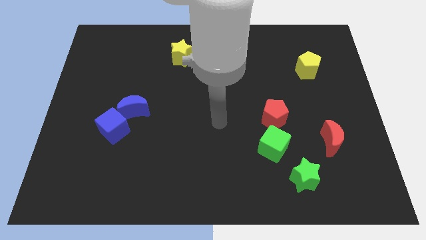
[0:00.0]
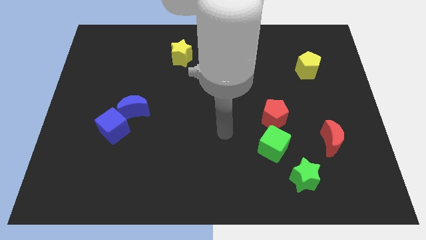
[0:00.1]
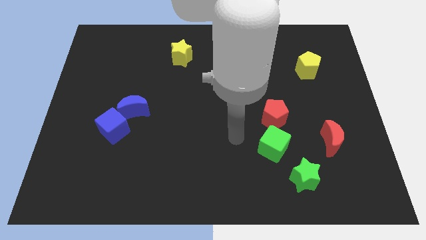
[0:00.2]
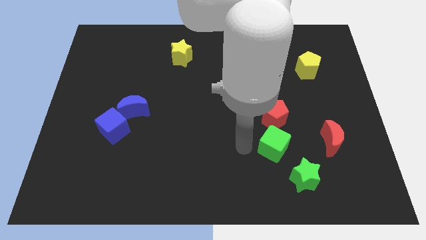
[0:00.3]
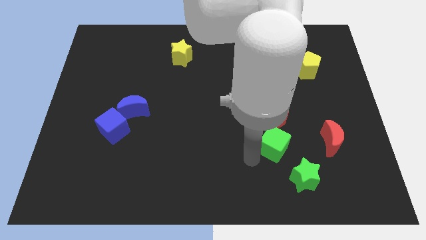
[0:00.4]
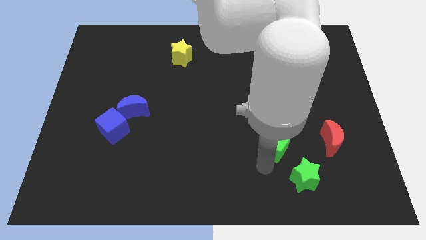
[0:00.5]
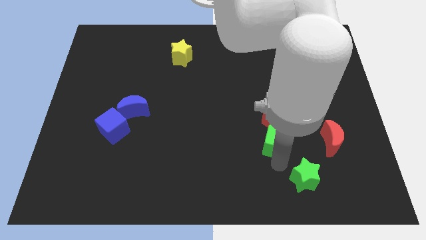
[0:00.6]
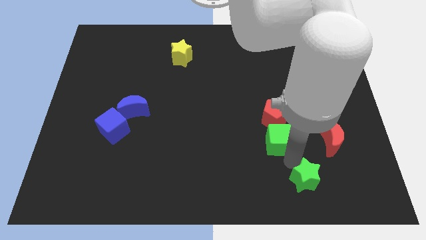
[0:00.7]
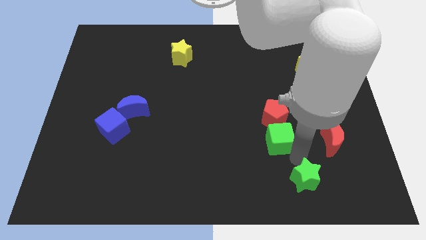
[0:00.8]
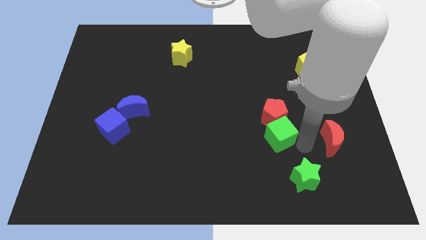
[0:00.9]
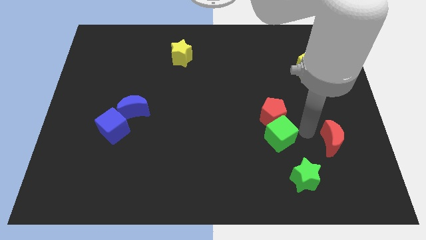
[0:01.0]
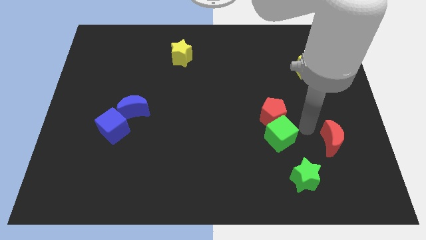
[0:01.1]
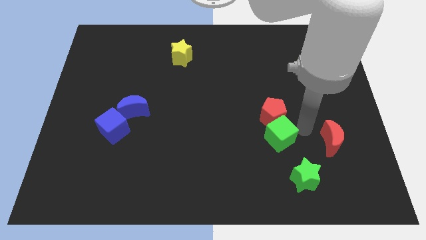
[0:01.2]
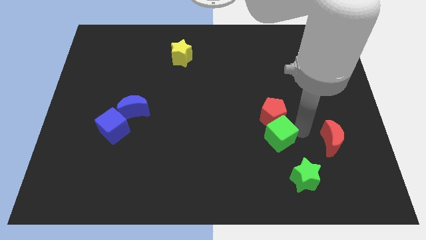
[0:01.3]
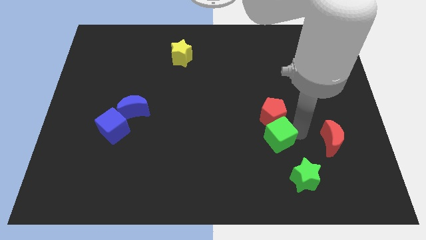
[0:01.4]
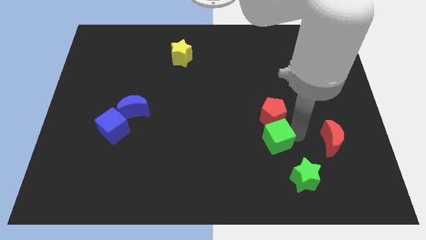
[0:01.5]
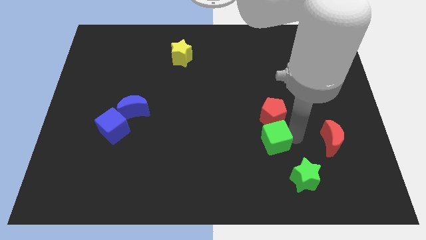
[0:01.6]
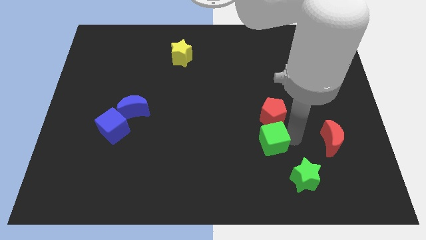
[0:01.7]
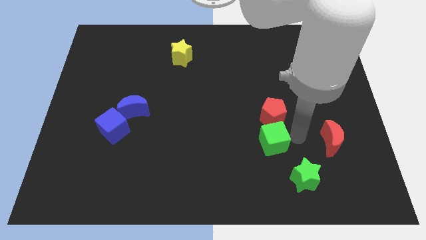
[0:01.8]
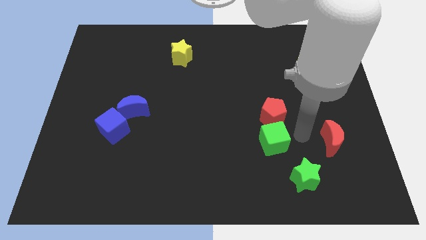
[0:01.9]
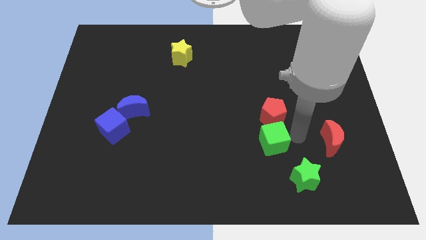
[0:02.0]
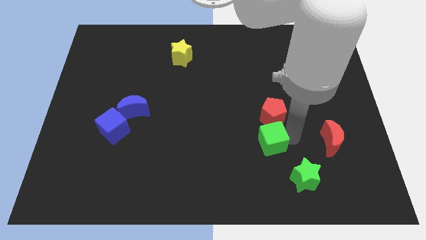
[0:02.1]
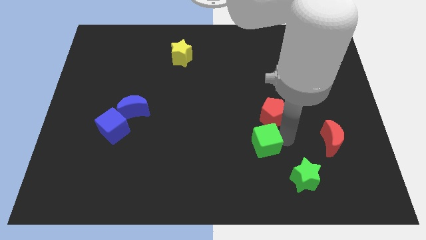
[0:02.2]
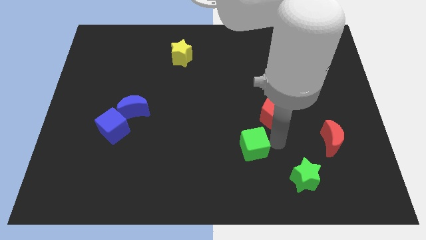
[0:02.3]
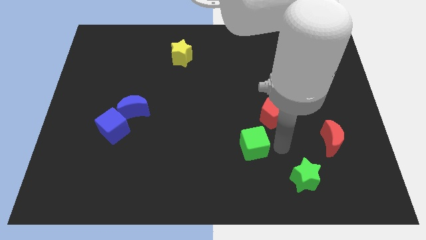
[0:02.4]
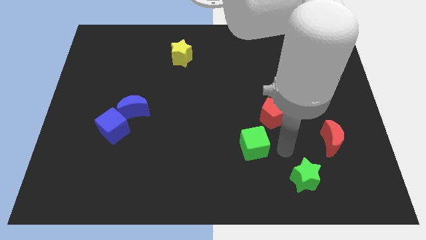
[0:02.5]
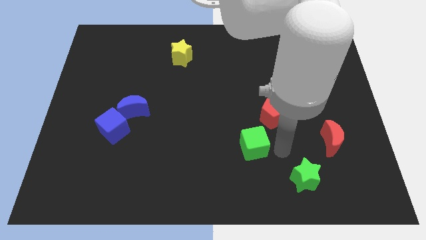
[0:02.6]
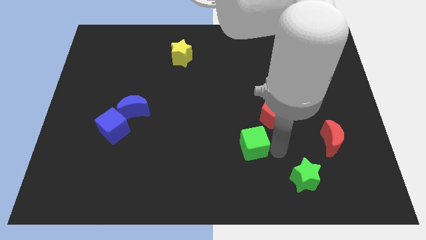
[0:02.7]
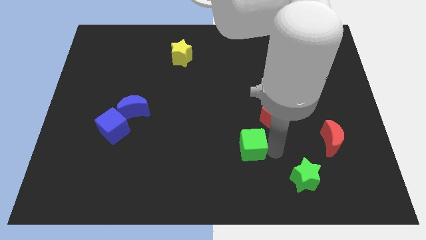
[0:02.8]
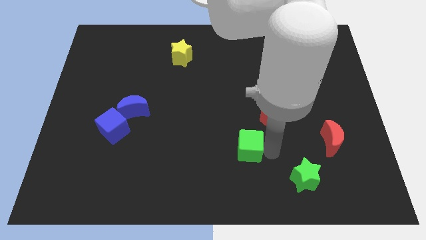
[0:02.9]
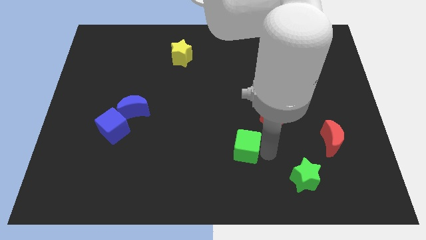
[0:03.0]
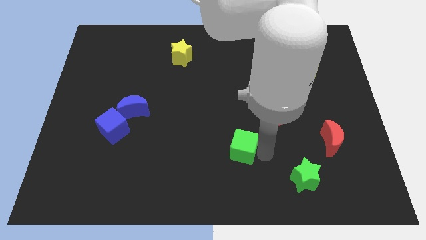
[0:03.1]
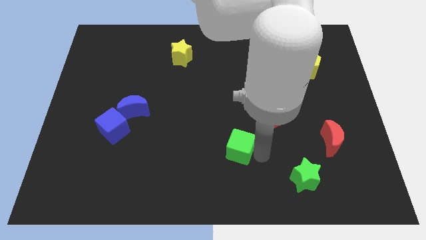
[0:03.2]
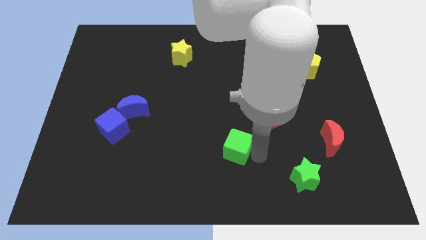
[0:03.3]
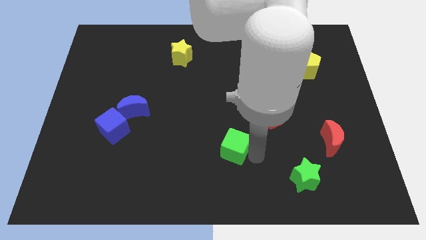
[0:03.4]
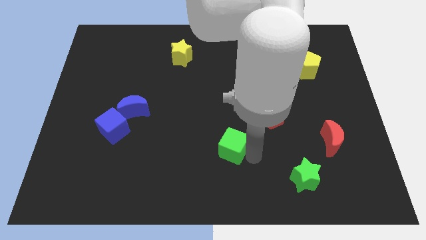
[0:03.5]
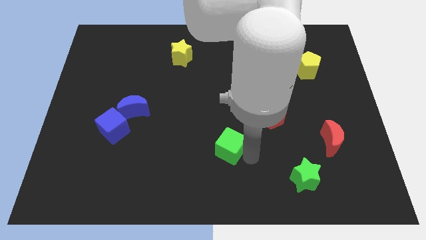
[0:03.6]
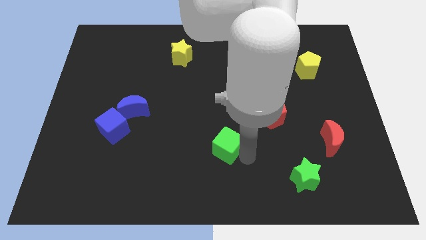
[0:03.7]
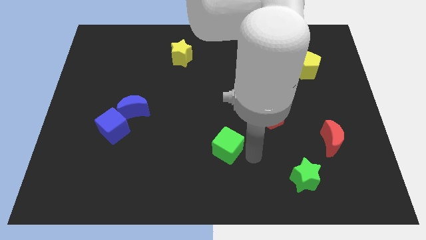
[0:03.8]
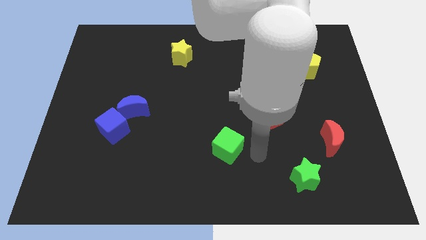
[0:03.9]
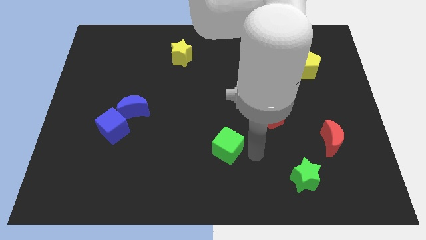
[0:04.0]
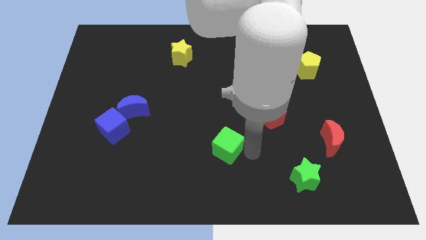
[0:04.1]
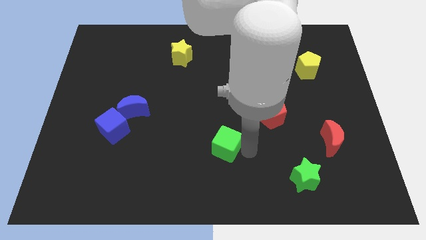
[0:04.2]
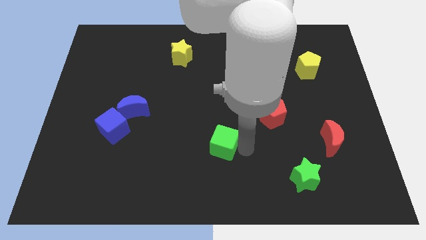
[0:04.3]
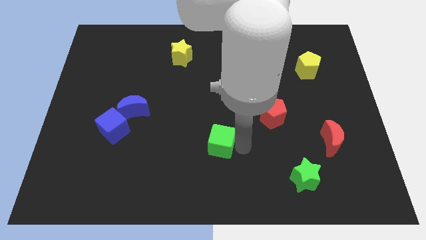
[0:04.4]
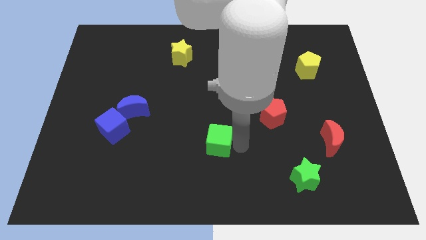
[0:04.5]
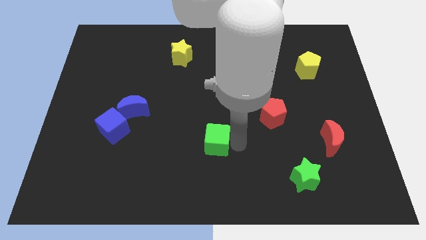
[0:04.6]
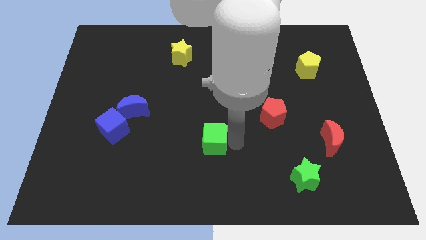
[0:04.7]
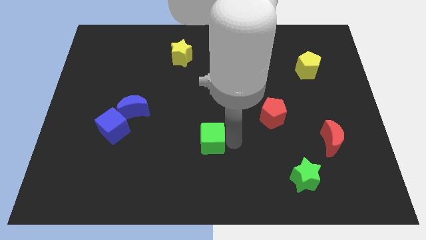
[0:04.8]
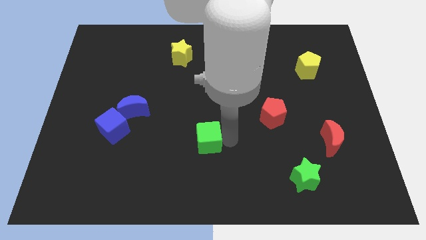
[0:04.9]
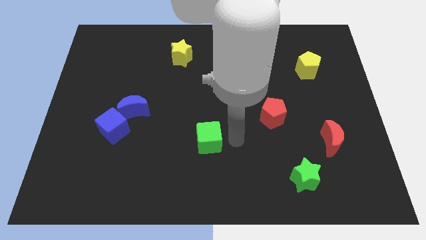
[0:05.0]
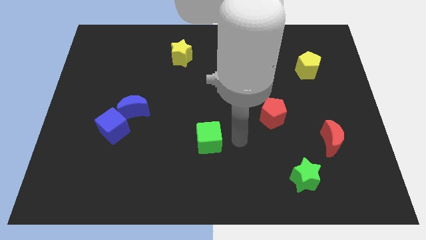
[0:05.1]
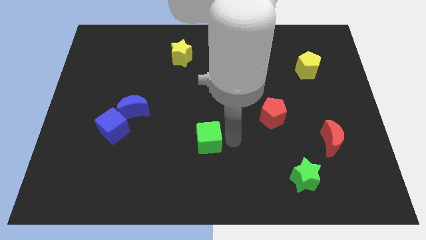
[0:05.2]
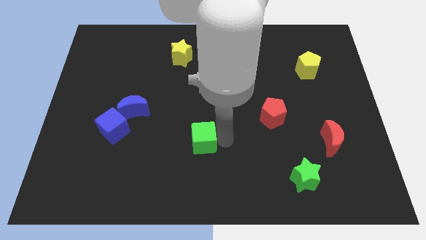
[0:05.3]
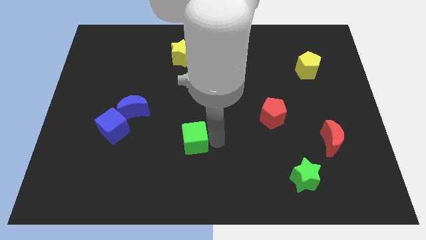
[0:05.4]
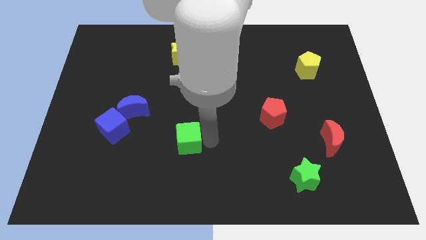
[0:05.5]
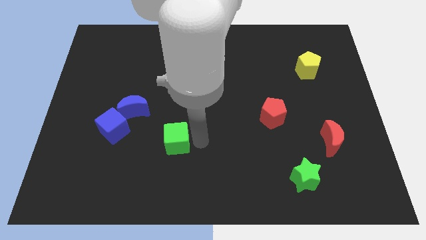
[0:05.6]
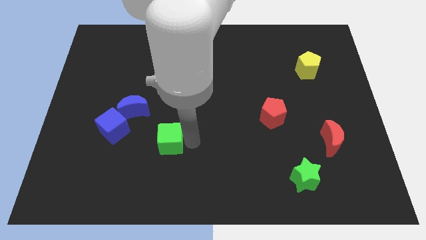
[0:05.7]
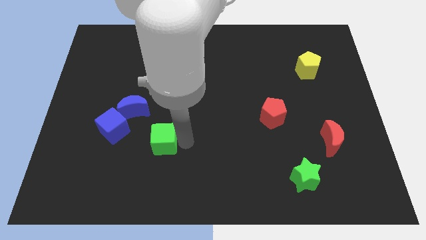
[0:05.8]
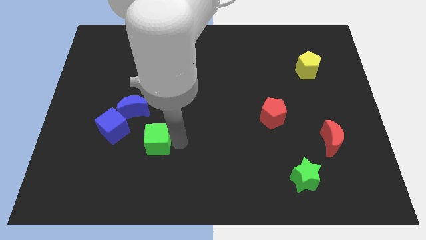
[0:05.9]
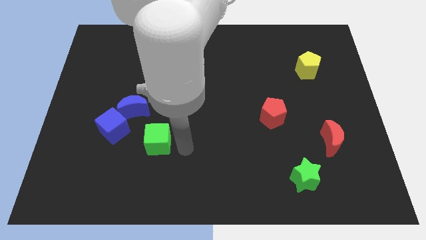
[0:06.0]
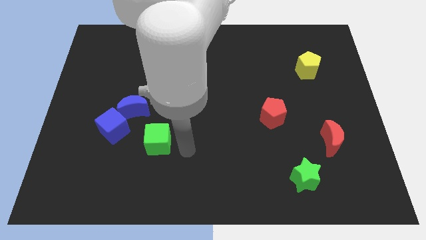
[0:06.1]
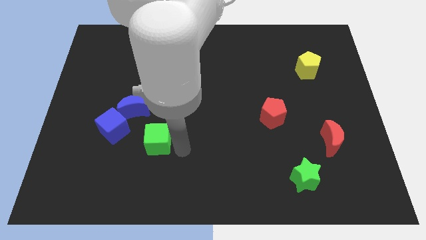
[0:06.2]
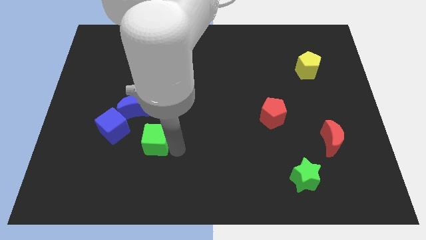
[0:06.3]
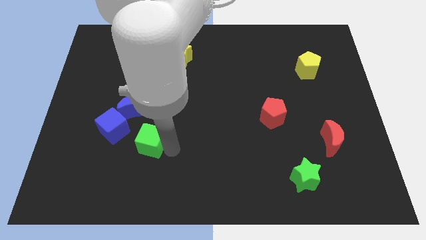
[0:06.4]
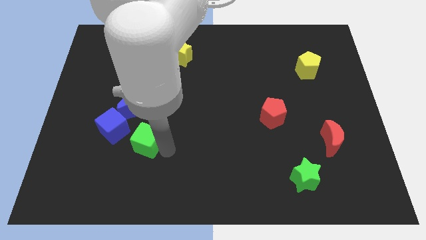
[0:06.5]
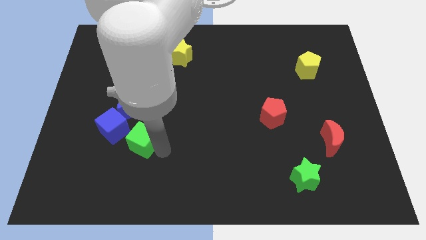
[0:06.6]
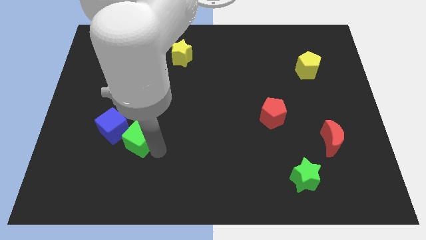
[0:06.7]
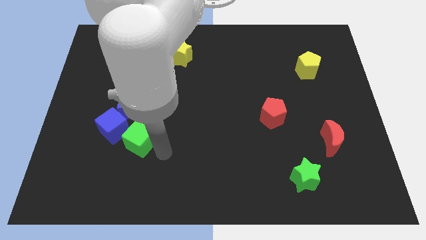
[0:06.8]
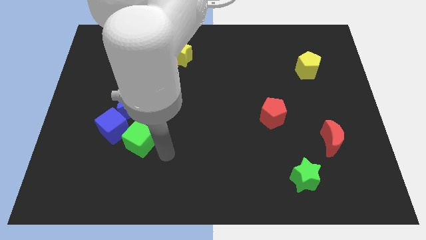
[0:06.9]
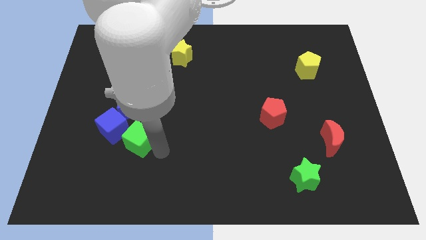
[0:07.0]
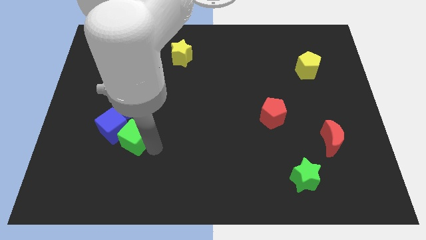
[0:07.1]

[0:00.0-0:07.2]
slide the green cube towards the blue cube
